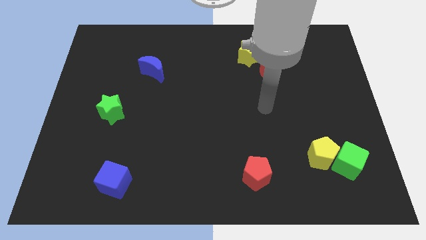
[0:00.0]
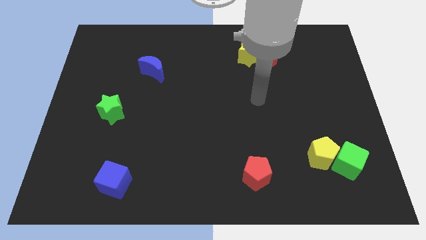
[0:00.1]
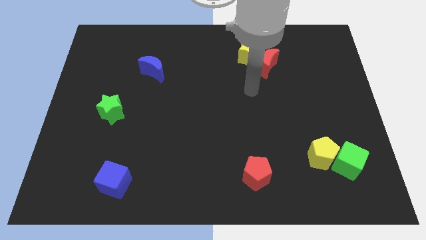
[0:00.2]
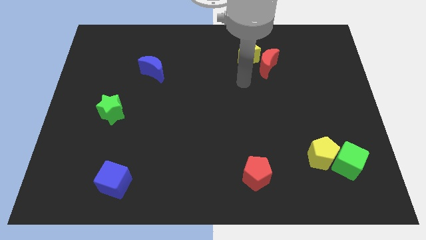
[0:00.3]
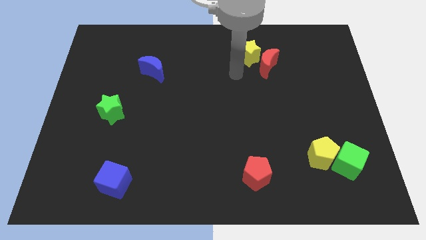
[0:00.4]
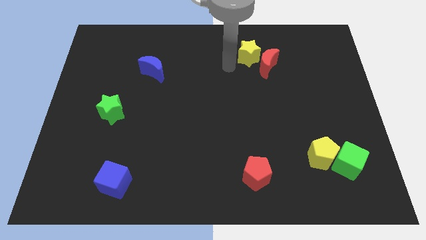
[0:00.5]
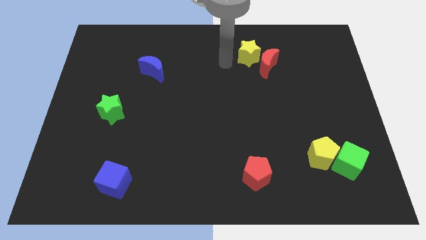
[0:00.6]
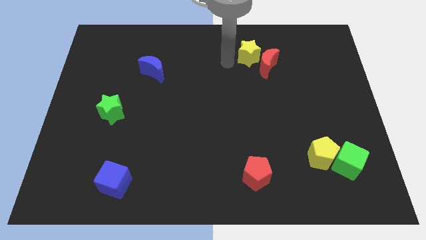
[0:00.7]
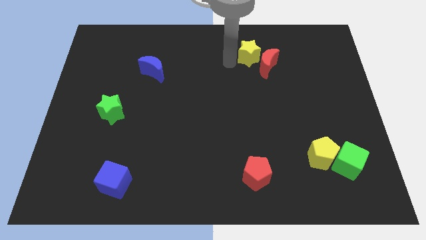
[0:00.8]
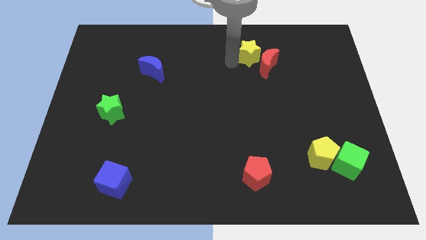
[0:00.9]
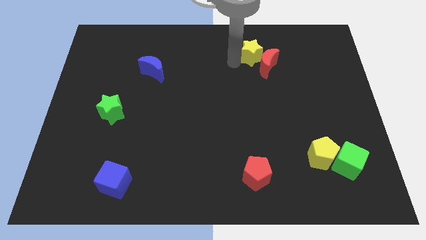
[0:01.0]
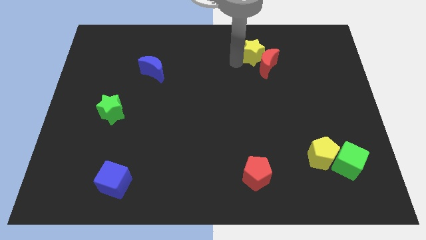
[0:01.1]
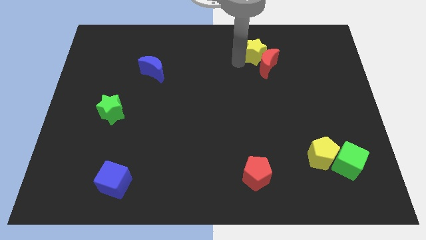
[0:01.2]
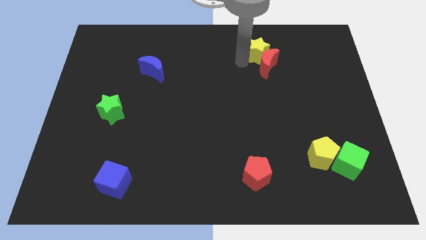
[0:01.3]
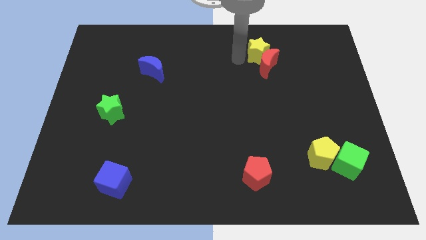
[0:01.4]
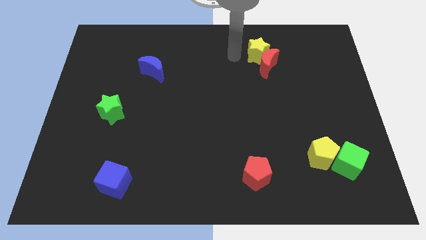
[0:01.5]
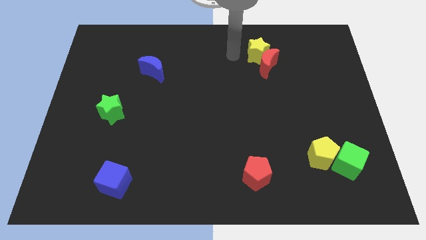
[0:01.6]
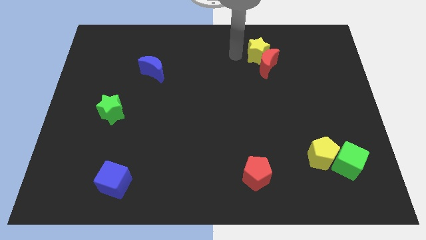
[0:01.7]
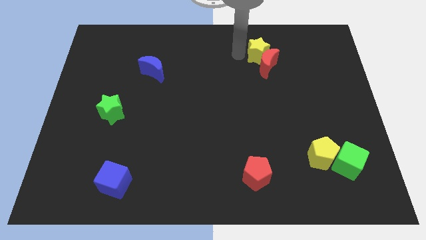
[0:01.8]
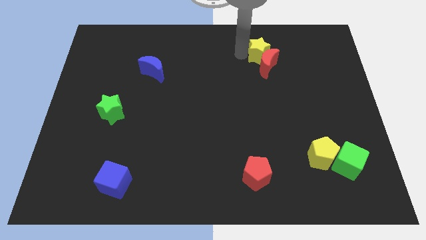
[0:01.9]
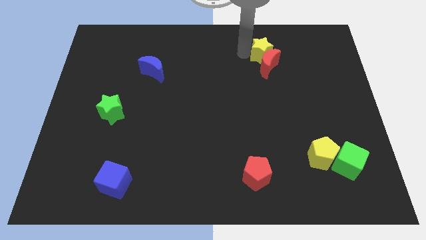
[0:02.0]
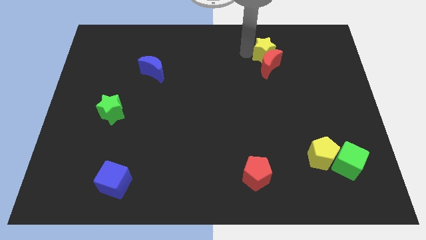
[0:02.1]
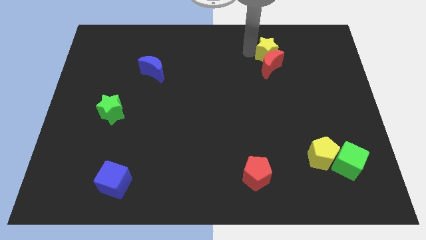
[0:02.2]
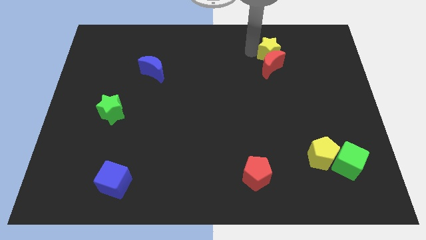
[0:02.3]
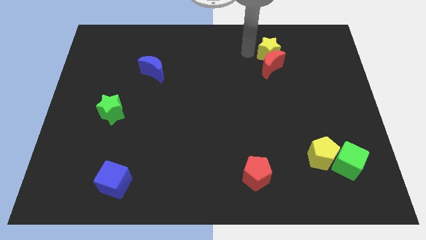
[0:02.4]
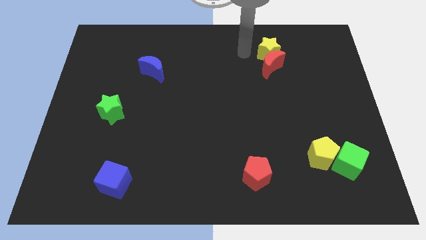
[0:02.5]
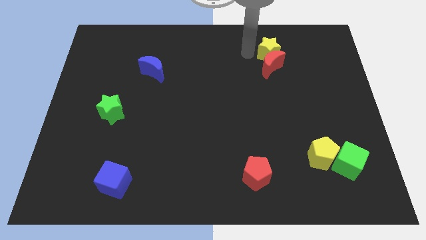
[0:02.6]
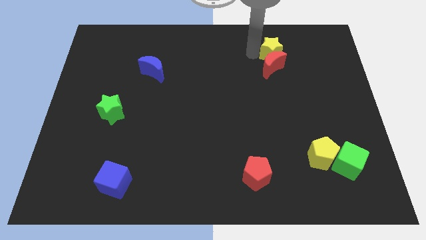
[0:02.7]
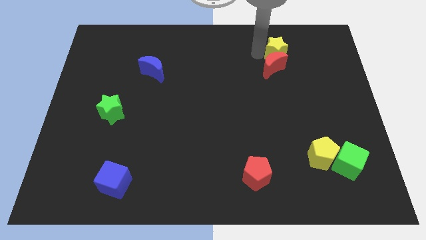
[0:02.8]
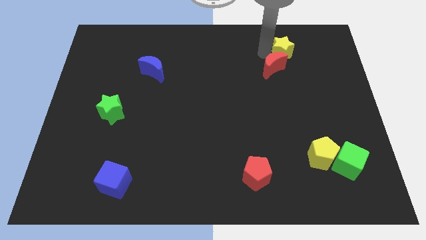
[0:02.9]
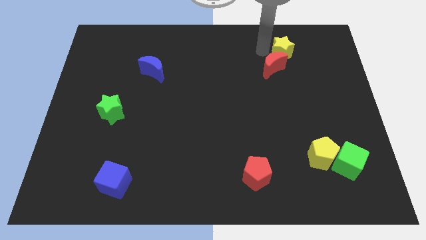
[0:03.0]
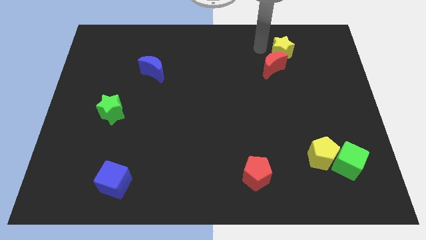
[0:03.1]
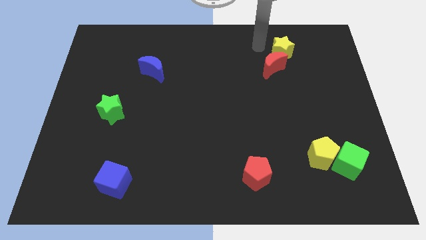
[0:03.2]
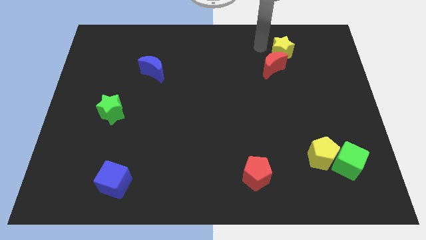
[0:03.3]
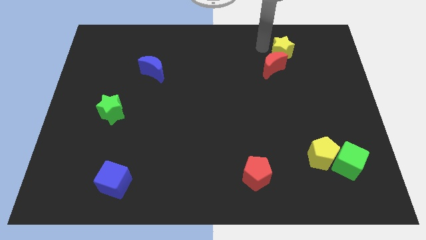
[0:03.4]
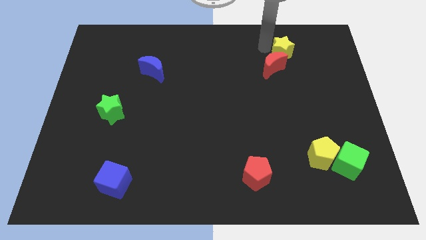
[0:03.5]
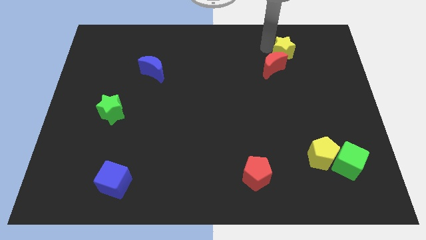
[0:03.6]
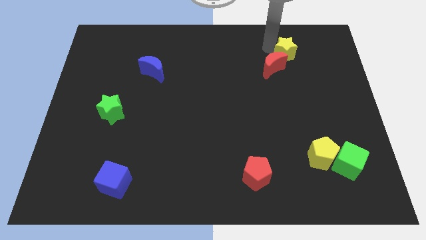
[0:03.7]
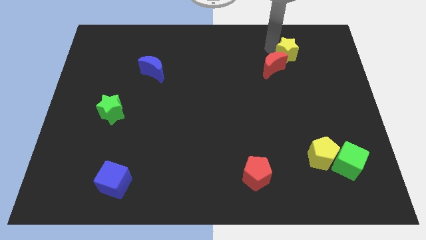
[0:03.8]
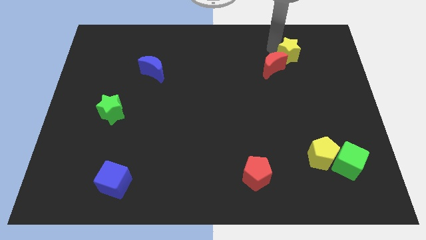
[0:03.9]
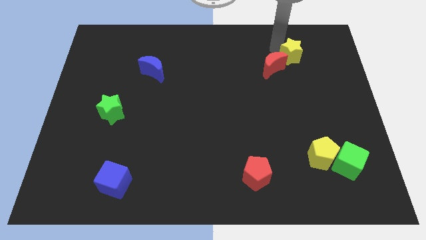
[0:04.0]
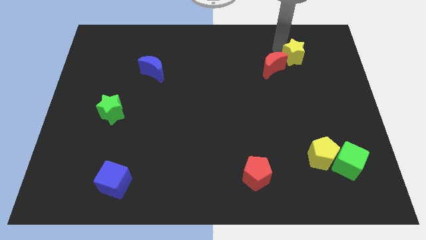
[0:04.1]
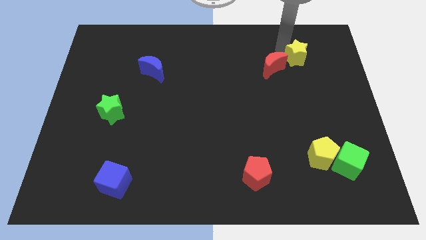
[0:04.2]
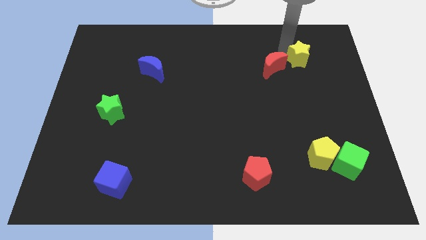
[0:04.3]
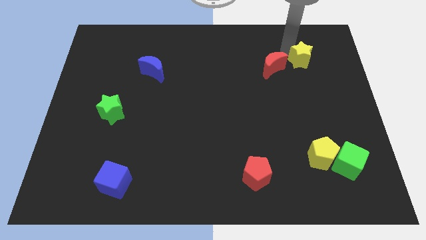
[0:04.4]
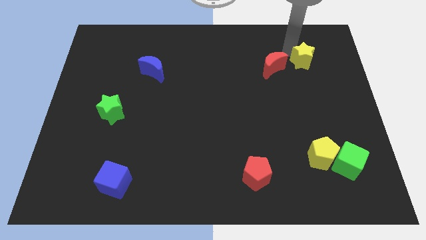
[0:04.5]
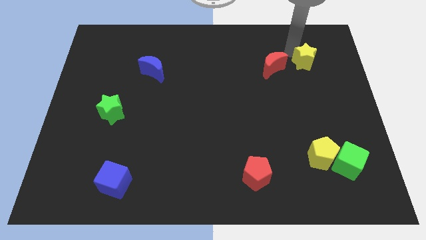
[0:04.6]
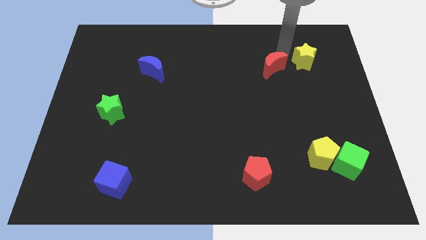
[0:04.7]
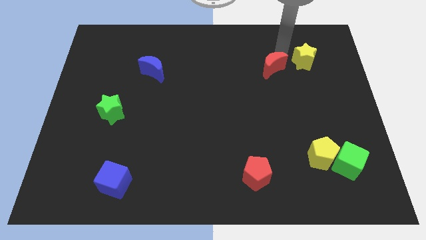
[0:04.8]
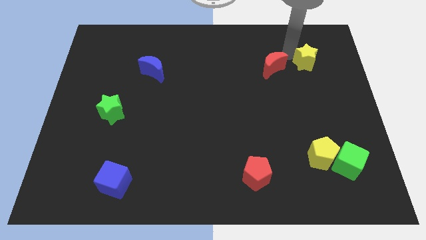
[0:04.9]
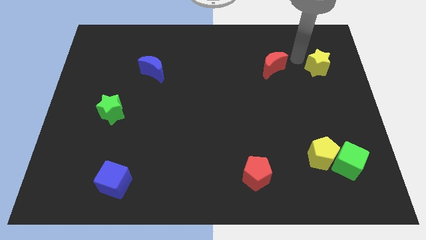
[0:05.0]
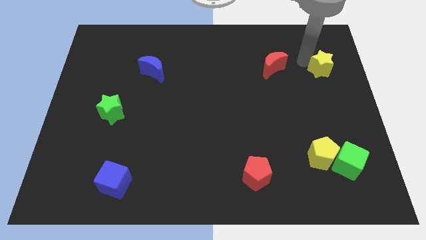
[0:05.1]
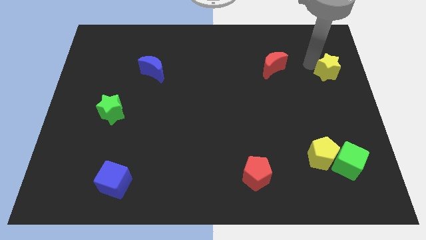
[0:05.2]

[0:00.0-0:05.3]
move the yellow star to the right side
